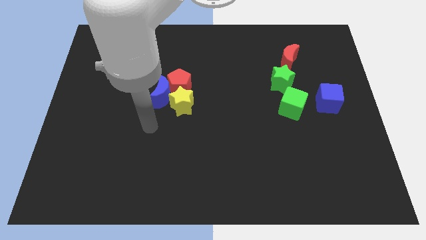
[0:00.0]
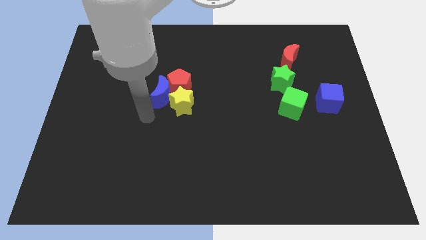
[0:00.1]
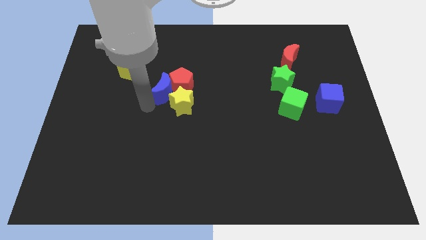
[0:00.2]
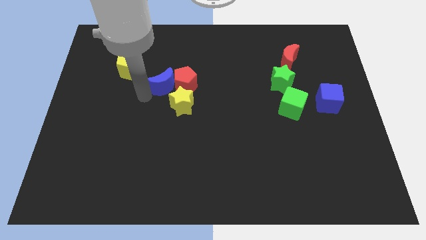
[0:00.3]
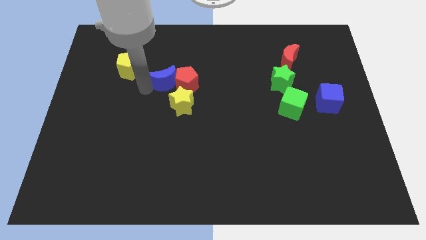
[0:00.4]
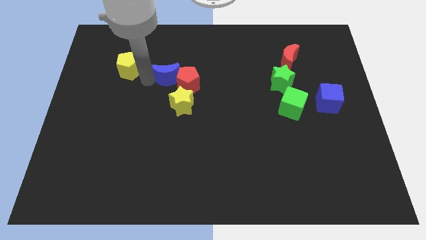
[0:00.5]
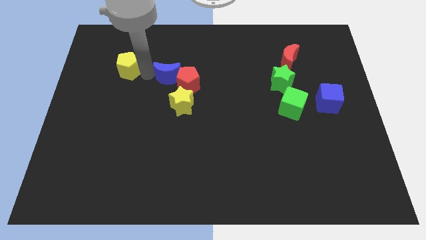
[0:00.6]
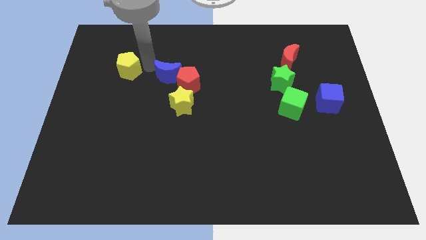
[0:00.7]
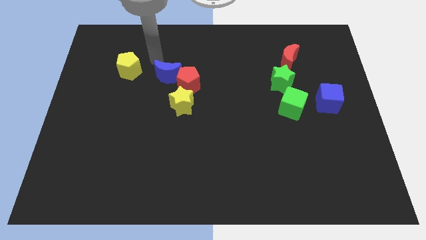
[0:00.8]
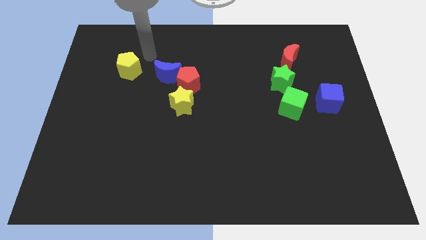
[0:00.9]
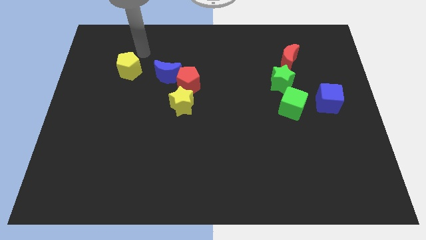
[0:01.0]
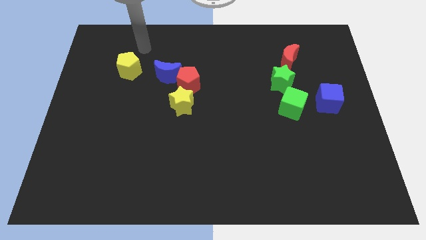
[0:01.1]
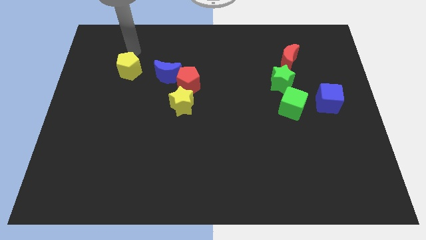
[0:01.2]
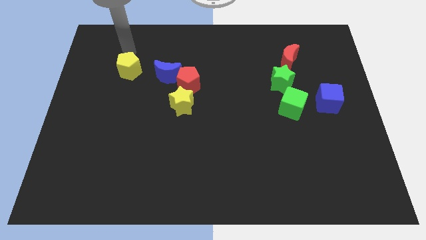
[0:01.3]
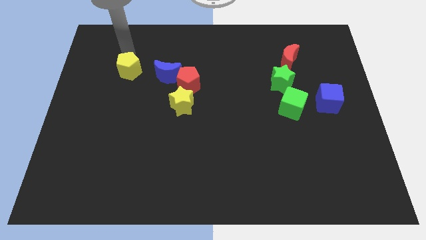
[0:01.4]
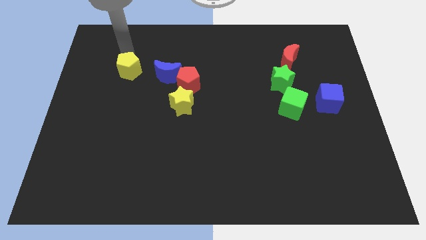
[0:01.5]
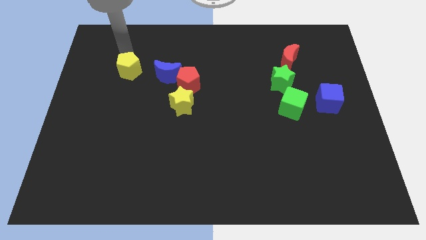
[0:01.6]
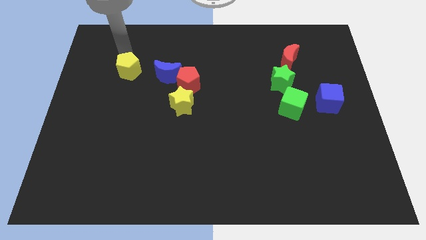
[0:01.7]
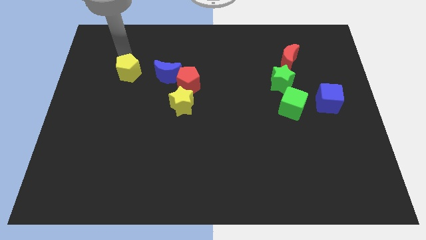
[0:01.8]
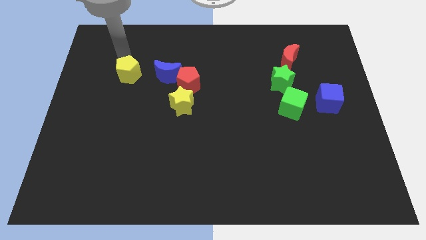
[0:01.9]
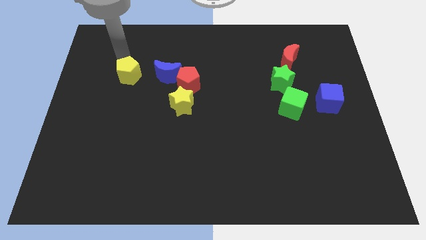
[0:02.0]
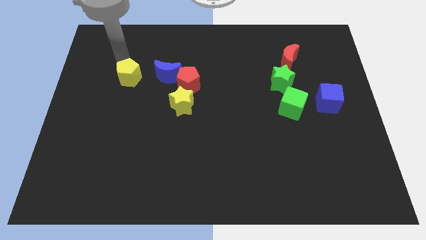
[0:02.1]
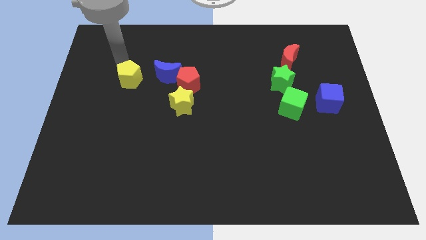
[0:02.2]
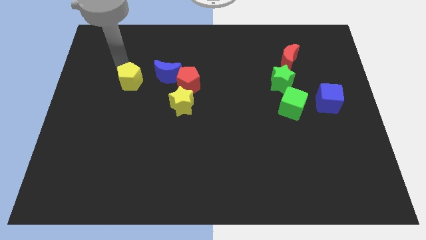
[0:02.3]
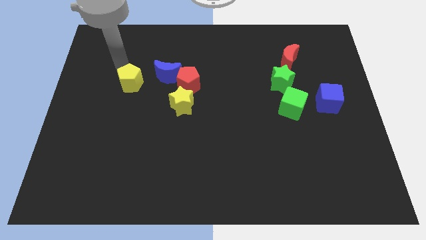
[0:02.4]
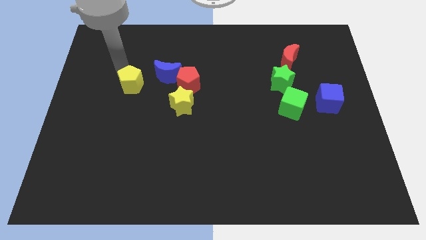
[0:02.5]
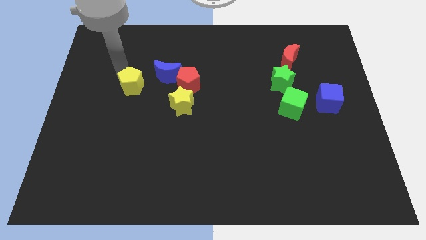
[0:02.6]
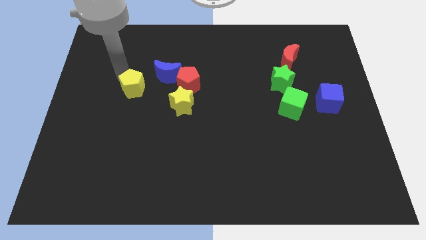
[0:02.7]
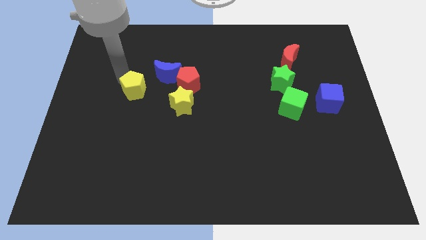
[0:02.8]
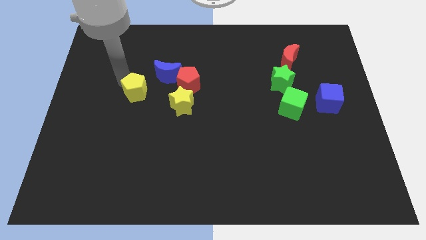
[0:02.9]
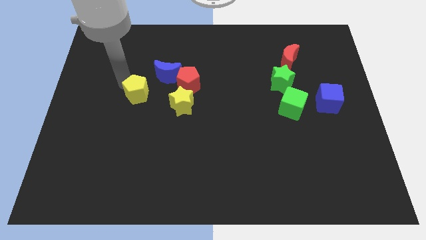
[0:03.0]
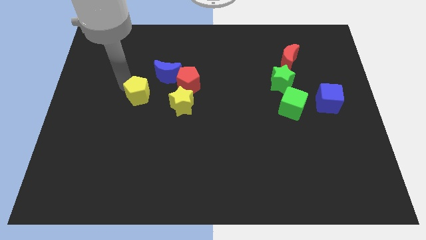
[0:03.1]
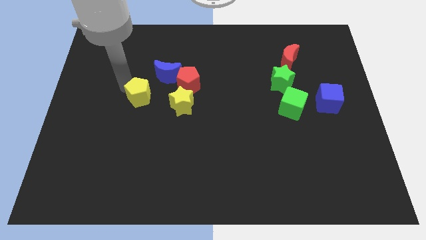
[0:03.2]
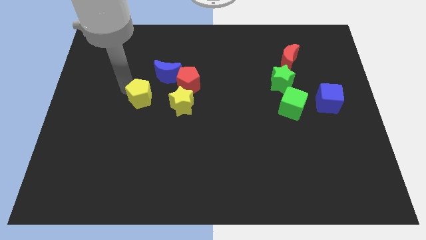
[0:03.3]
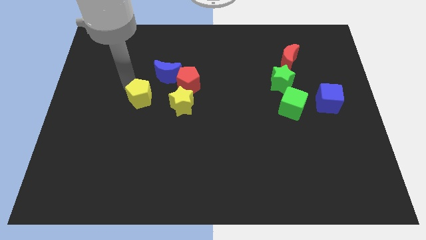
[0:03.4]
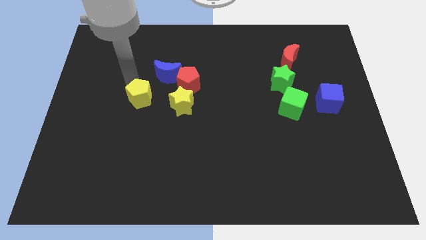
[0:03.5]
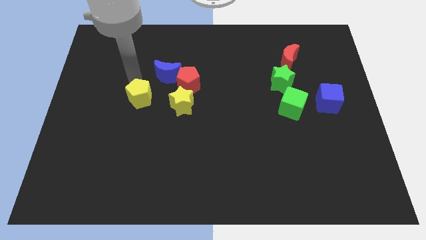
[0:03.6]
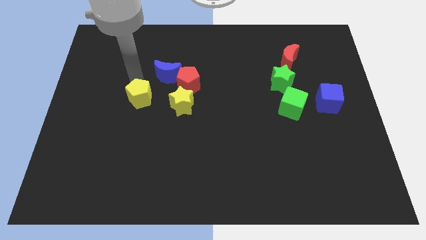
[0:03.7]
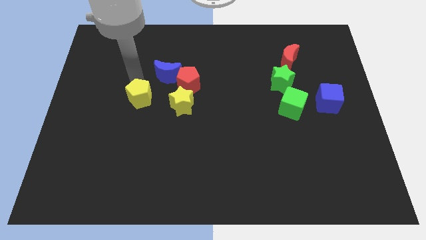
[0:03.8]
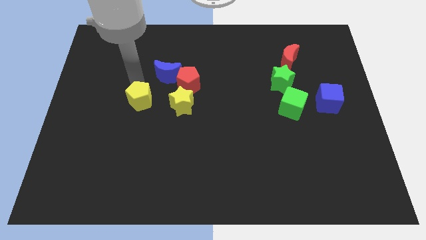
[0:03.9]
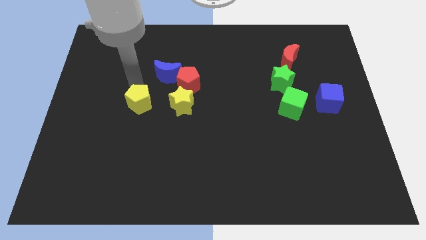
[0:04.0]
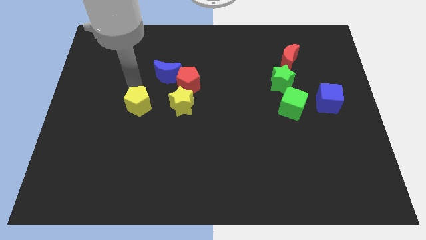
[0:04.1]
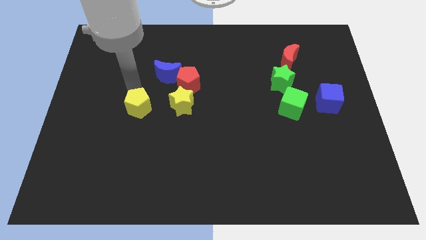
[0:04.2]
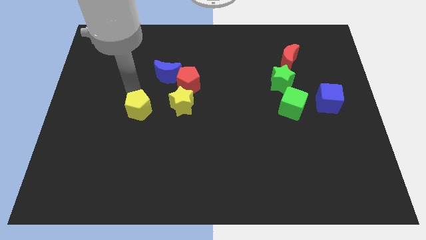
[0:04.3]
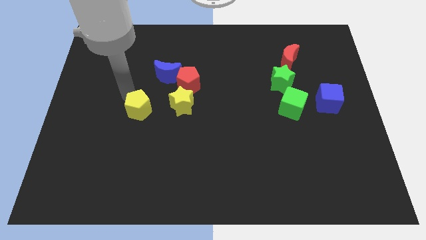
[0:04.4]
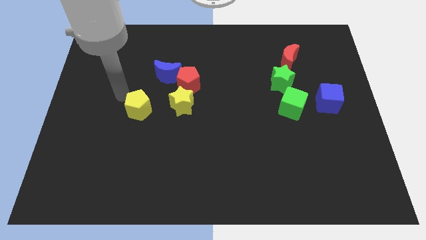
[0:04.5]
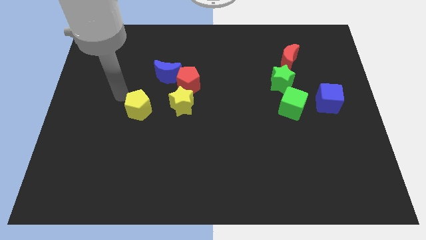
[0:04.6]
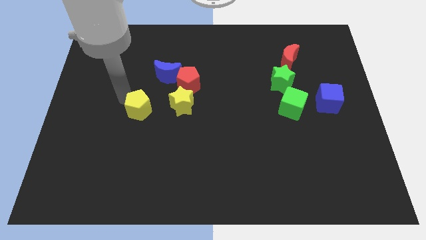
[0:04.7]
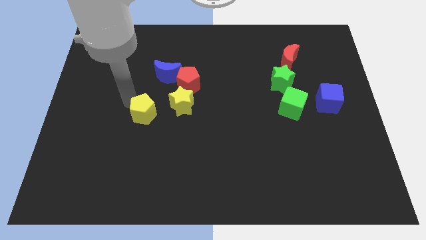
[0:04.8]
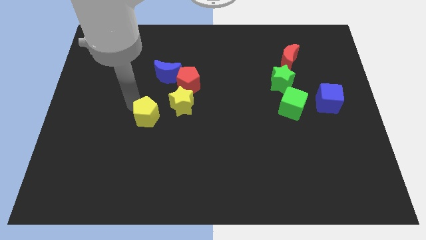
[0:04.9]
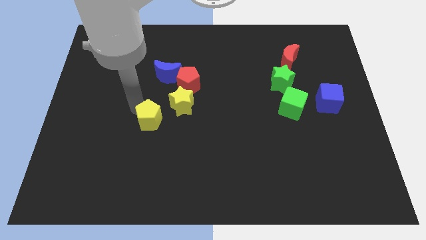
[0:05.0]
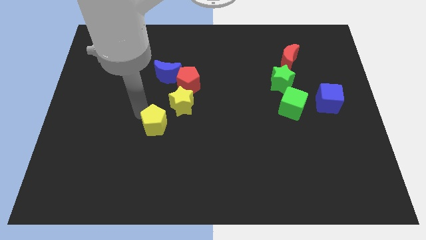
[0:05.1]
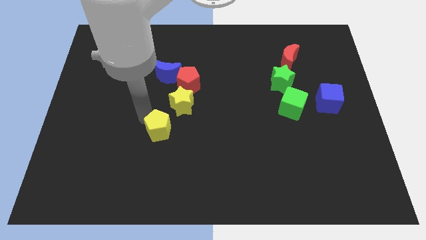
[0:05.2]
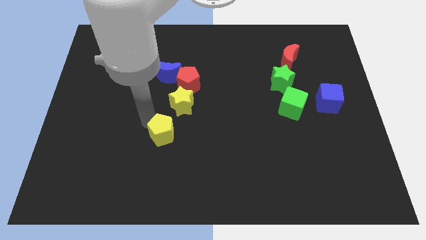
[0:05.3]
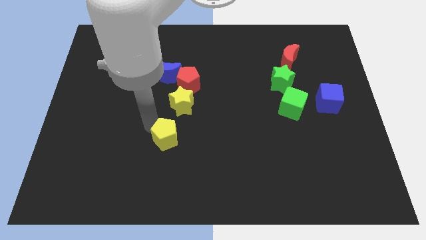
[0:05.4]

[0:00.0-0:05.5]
slide the yellow pentagon diagonally down and right

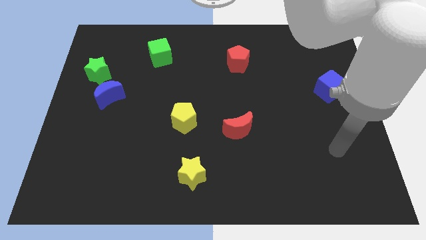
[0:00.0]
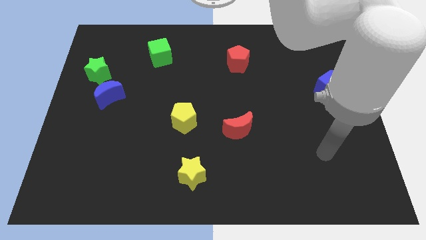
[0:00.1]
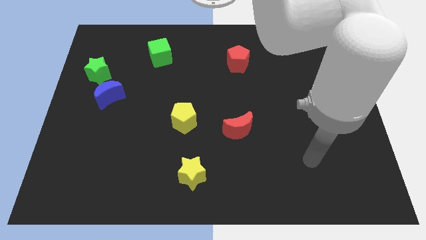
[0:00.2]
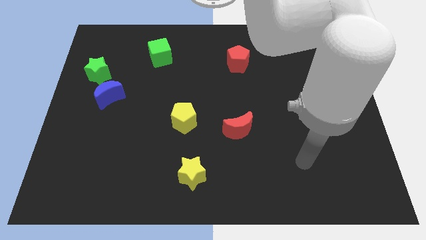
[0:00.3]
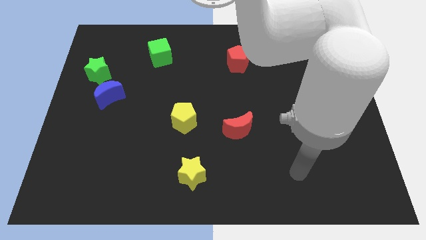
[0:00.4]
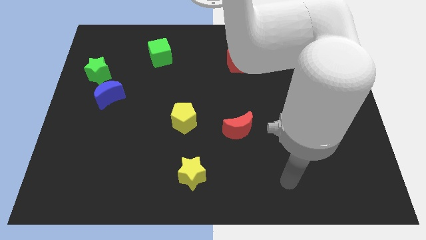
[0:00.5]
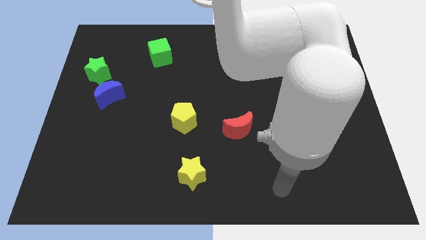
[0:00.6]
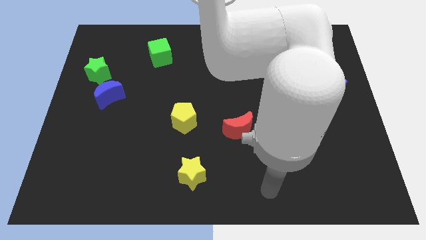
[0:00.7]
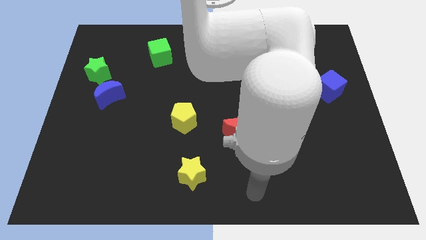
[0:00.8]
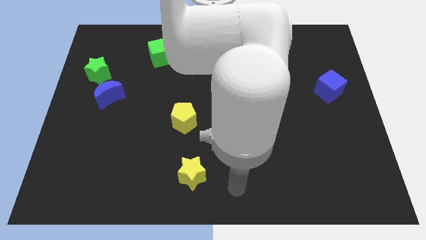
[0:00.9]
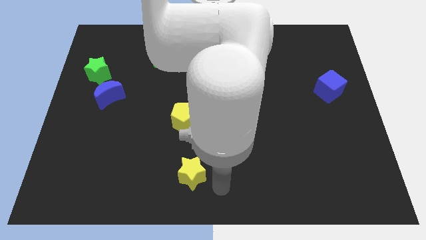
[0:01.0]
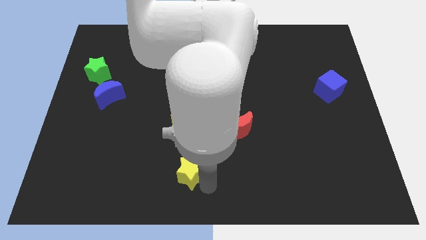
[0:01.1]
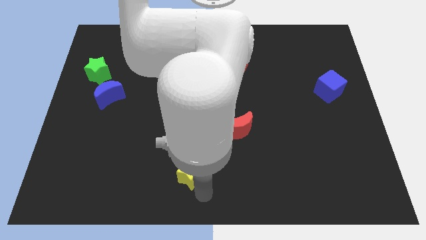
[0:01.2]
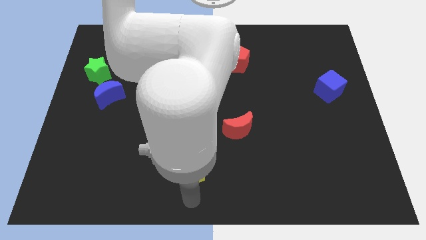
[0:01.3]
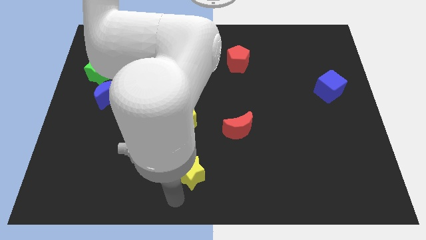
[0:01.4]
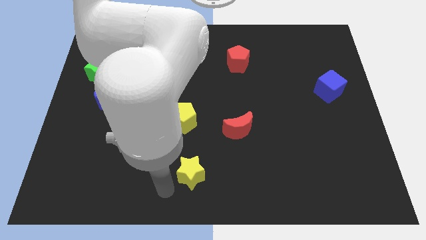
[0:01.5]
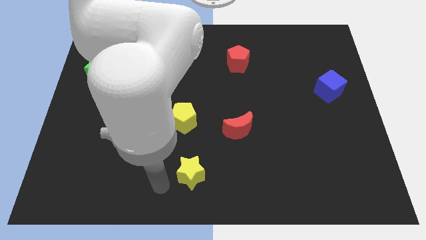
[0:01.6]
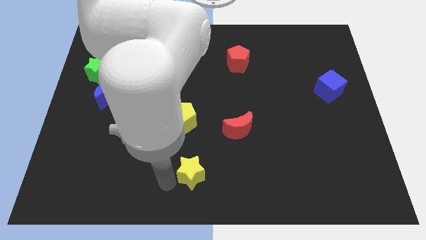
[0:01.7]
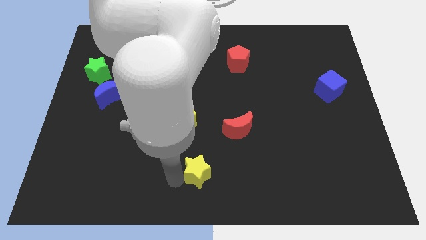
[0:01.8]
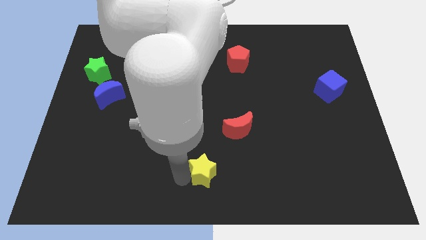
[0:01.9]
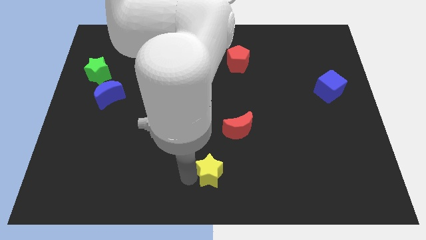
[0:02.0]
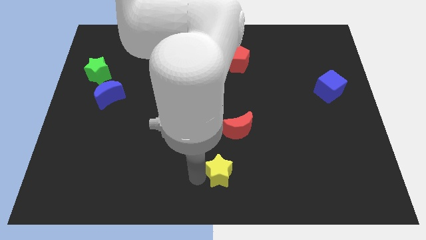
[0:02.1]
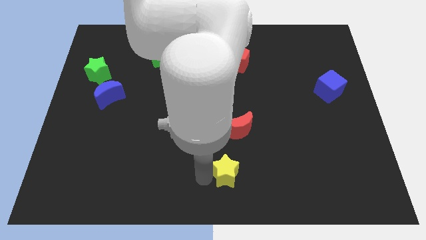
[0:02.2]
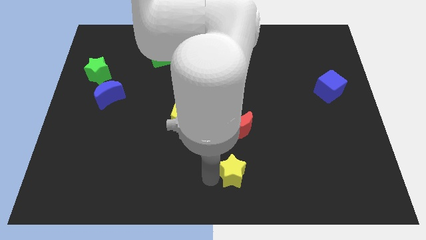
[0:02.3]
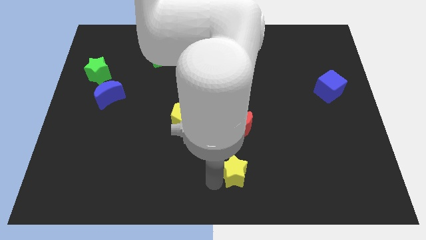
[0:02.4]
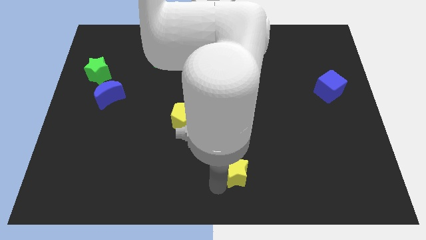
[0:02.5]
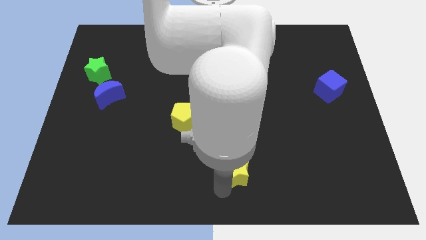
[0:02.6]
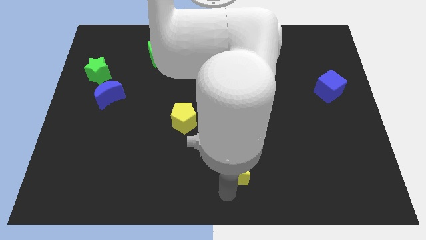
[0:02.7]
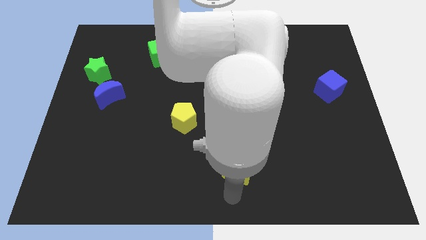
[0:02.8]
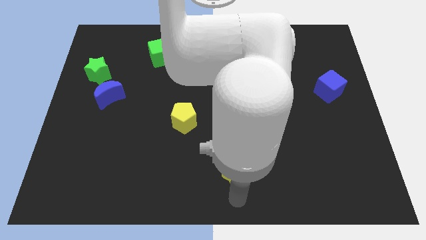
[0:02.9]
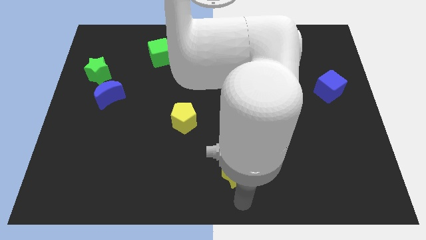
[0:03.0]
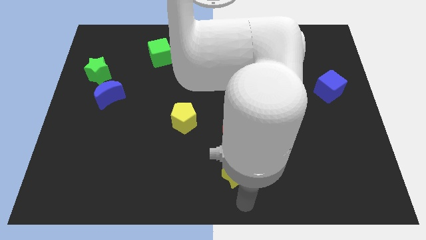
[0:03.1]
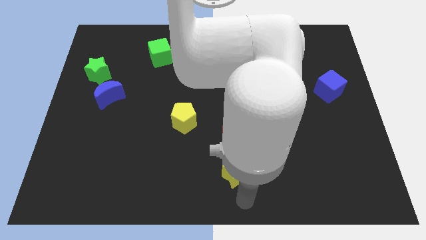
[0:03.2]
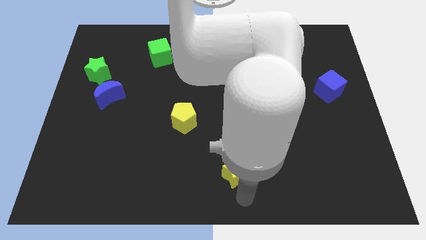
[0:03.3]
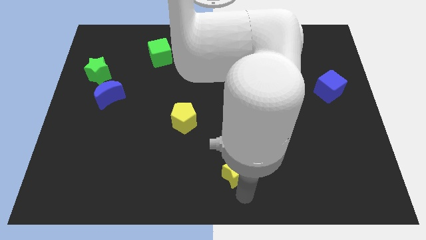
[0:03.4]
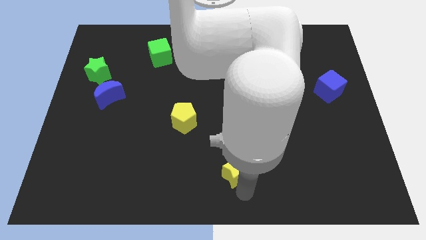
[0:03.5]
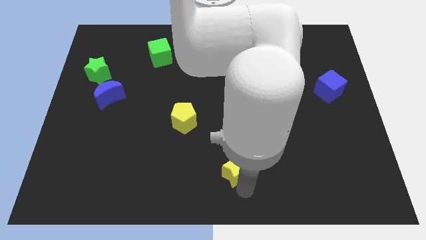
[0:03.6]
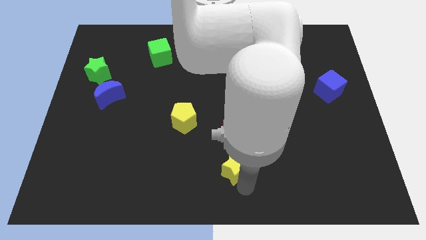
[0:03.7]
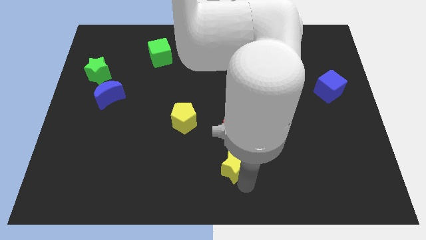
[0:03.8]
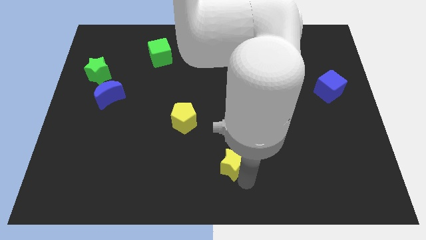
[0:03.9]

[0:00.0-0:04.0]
move the yellow star somewhat upwards and then right
